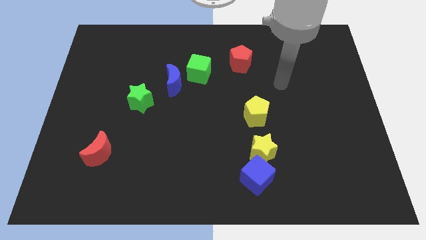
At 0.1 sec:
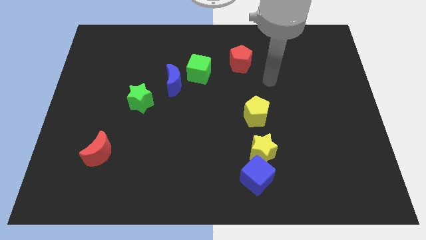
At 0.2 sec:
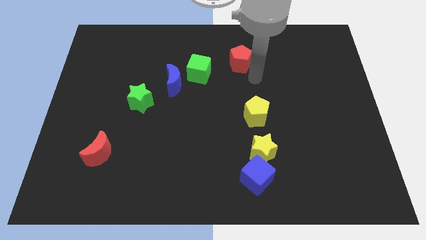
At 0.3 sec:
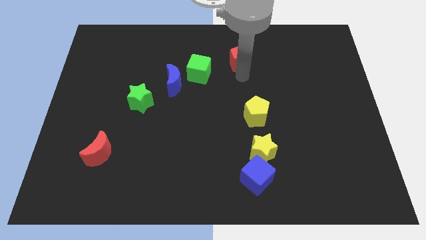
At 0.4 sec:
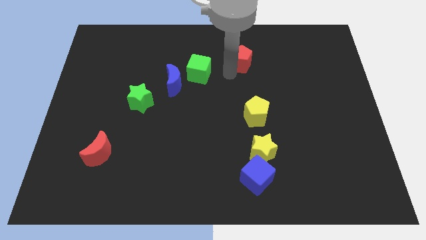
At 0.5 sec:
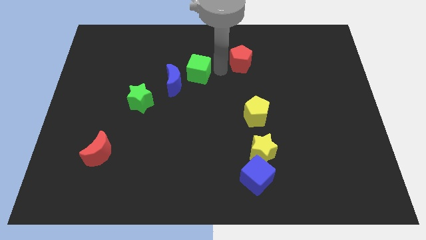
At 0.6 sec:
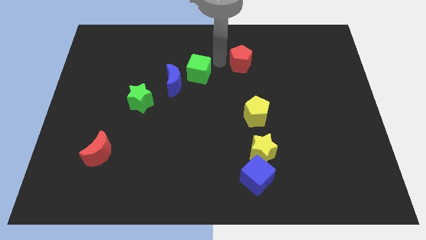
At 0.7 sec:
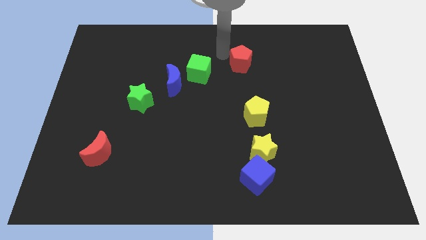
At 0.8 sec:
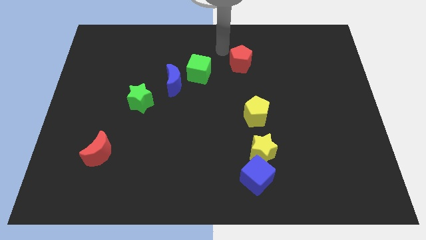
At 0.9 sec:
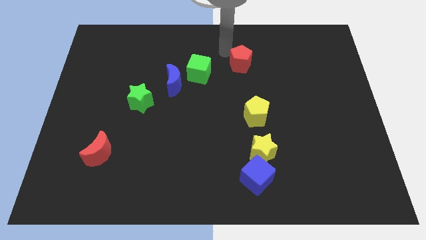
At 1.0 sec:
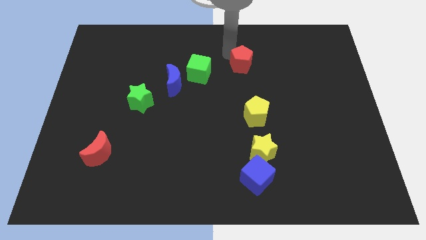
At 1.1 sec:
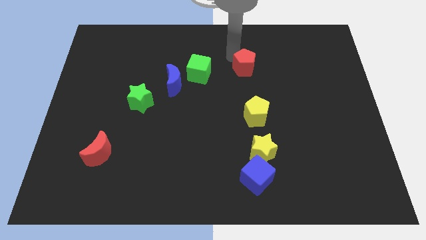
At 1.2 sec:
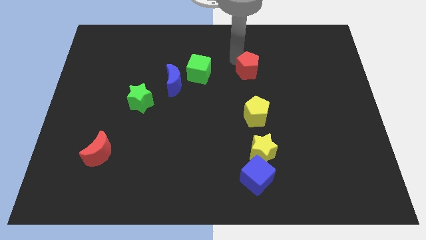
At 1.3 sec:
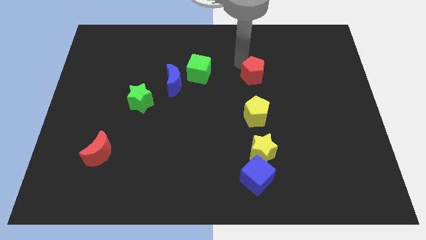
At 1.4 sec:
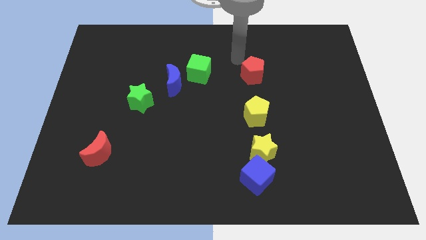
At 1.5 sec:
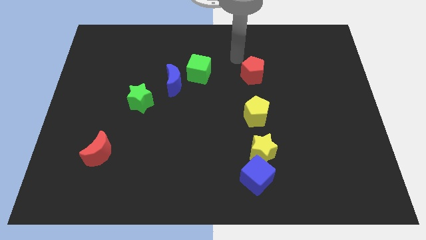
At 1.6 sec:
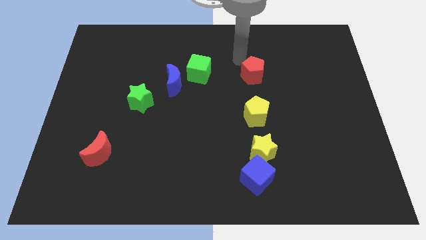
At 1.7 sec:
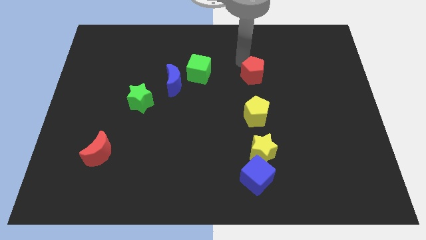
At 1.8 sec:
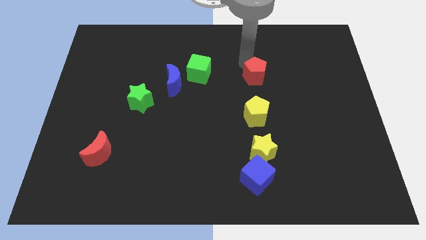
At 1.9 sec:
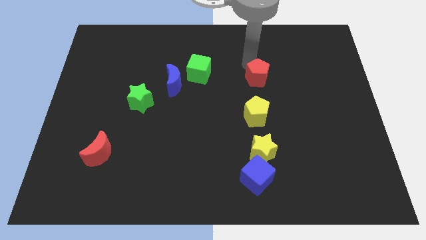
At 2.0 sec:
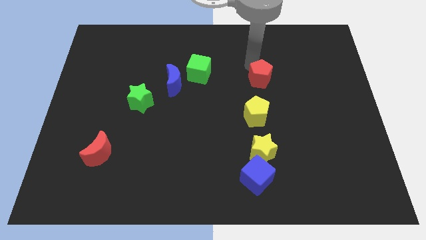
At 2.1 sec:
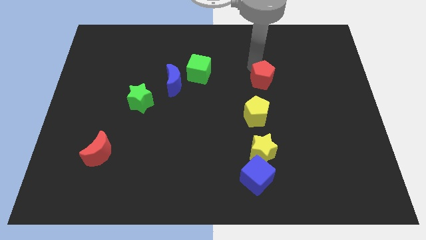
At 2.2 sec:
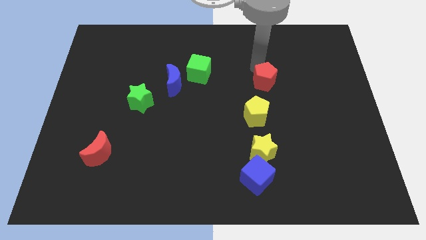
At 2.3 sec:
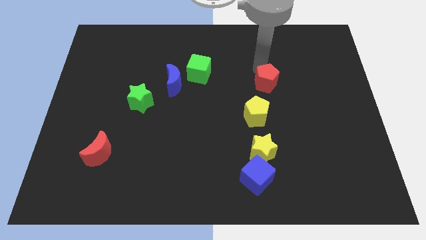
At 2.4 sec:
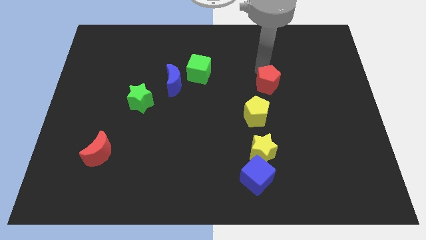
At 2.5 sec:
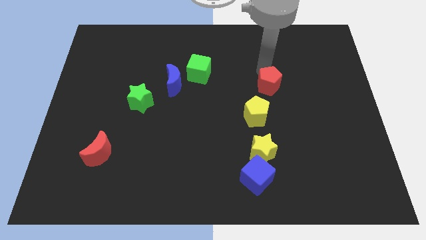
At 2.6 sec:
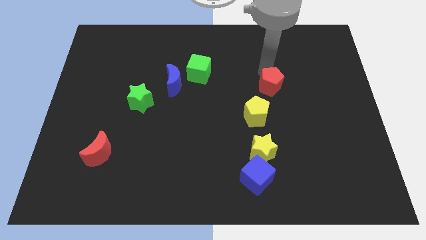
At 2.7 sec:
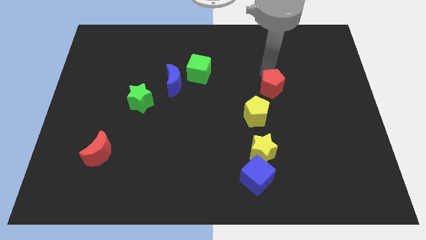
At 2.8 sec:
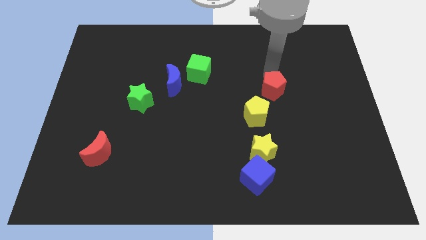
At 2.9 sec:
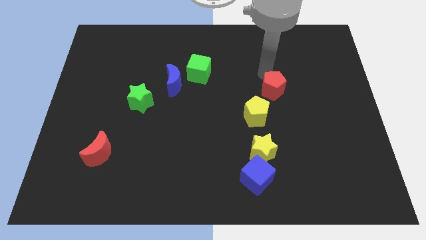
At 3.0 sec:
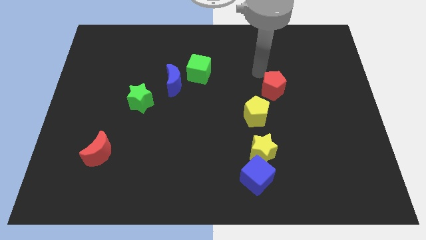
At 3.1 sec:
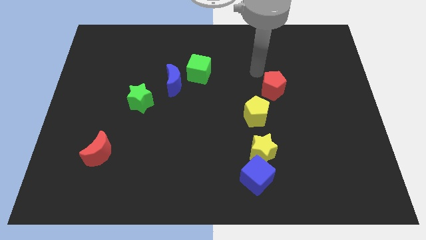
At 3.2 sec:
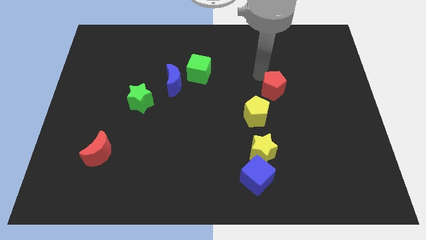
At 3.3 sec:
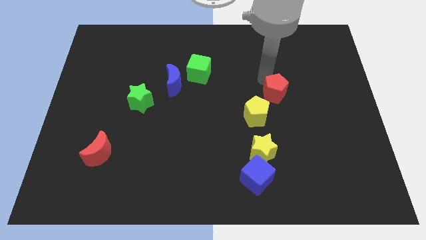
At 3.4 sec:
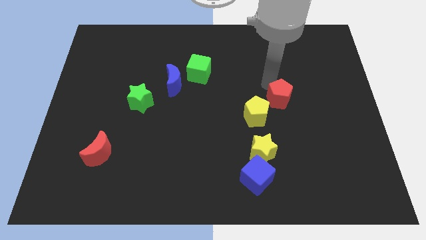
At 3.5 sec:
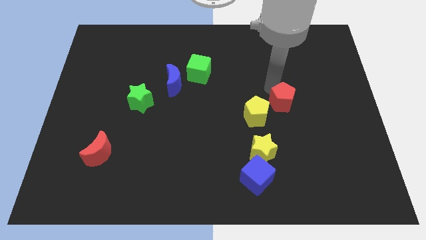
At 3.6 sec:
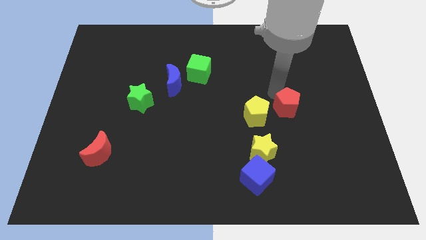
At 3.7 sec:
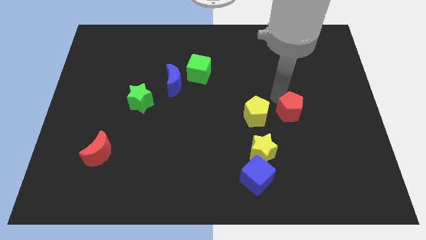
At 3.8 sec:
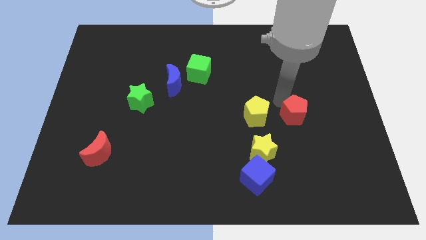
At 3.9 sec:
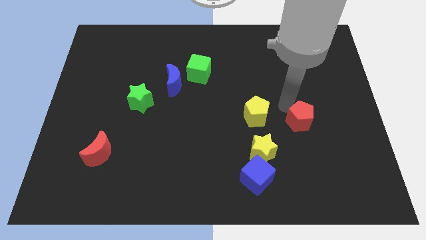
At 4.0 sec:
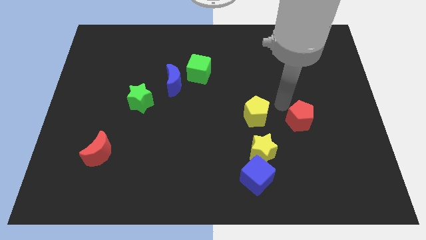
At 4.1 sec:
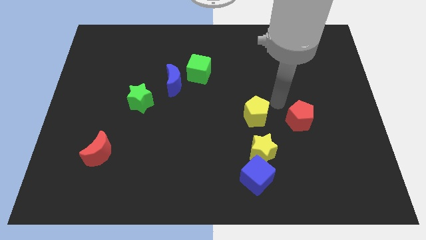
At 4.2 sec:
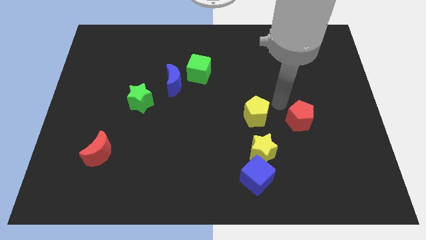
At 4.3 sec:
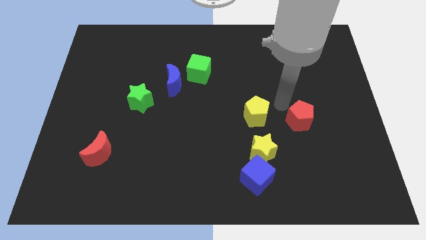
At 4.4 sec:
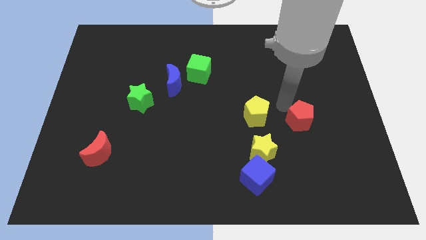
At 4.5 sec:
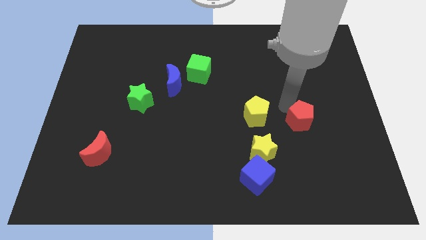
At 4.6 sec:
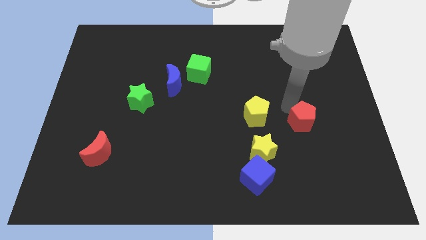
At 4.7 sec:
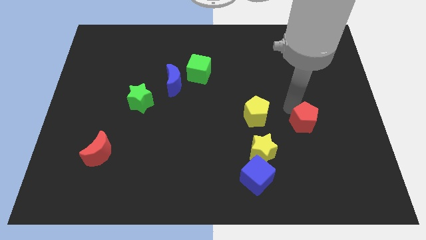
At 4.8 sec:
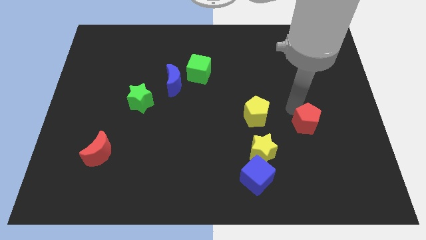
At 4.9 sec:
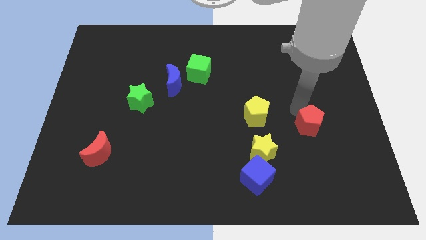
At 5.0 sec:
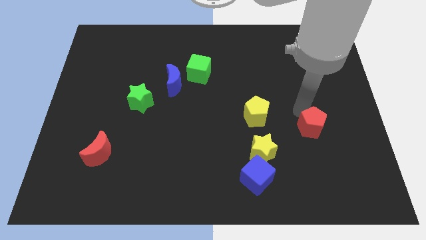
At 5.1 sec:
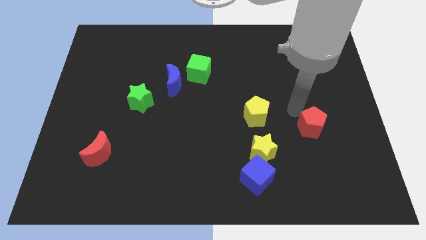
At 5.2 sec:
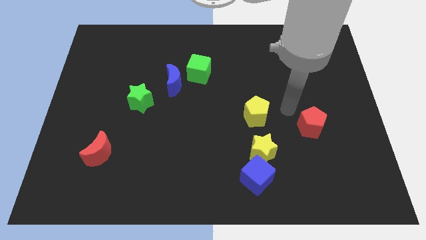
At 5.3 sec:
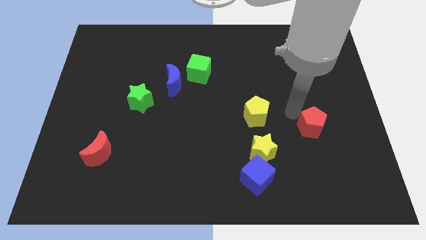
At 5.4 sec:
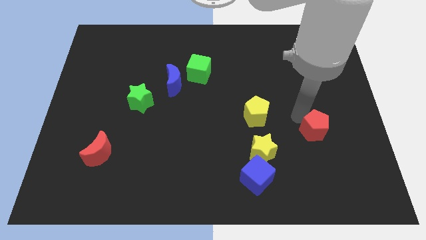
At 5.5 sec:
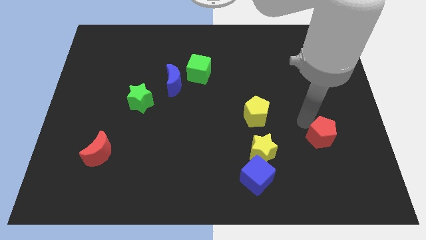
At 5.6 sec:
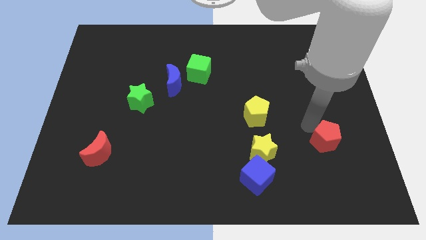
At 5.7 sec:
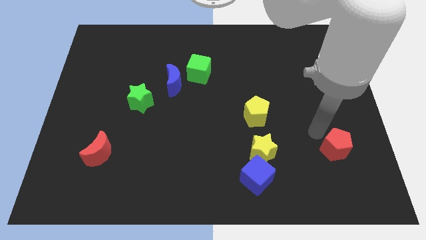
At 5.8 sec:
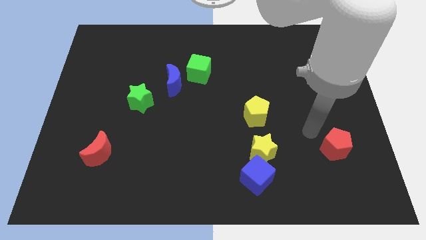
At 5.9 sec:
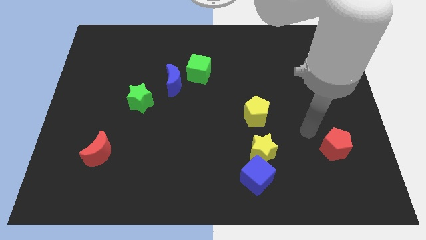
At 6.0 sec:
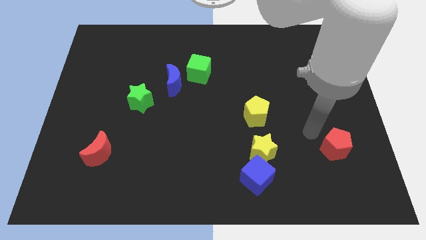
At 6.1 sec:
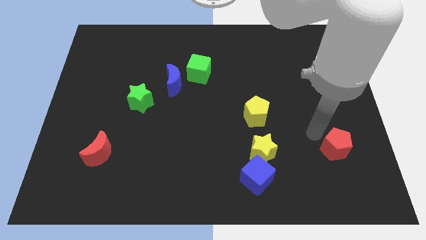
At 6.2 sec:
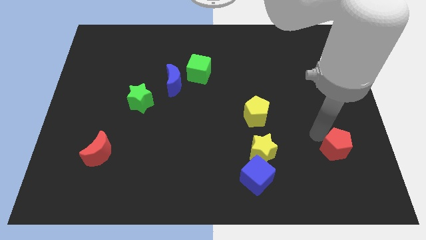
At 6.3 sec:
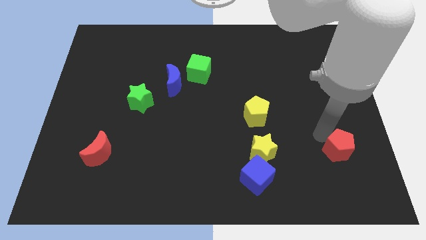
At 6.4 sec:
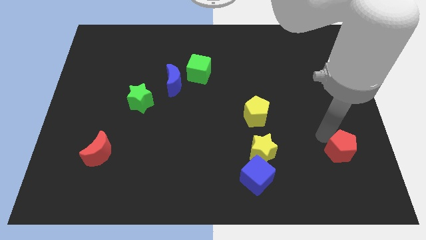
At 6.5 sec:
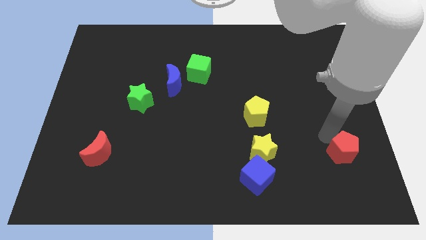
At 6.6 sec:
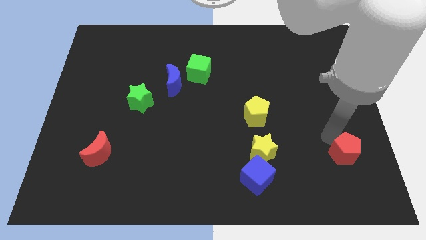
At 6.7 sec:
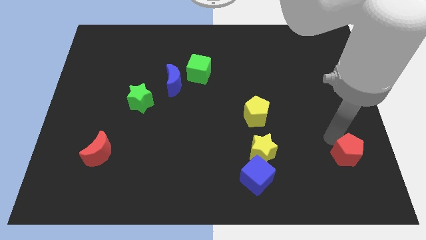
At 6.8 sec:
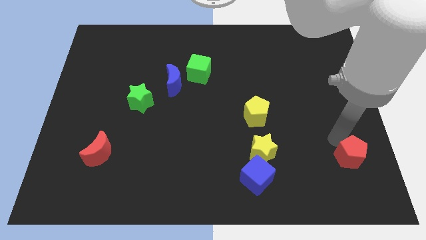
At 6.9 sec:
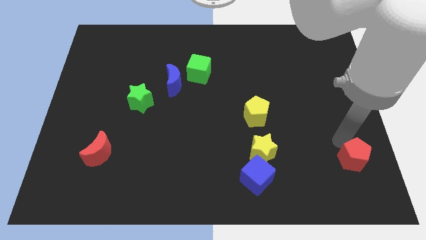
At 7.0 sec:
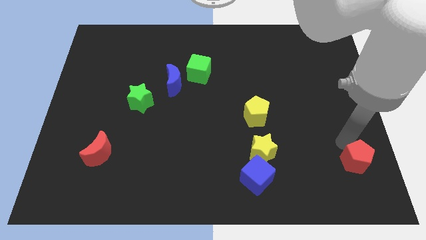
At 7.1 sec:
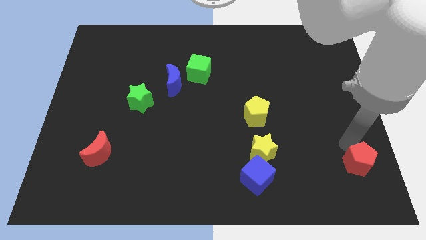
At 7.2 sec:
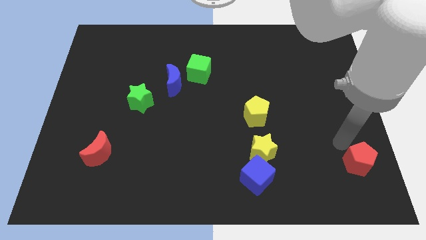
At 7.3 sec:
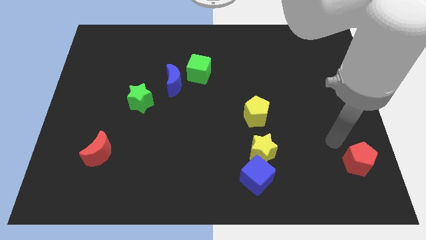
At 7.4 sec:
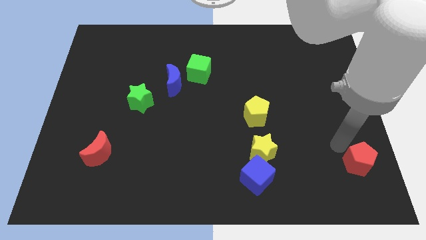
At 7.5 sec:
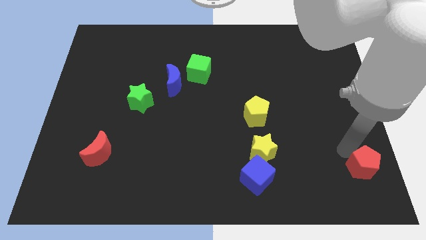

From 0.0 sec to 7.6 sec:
slide the red pentagon to the bottom right corner
